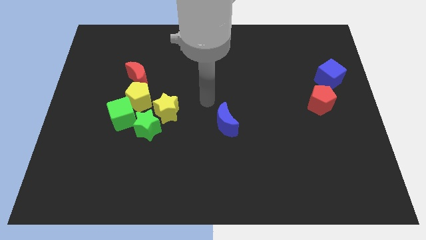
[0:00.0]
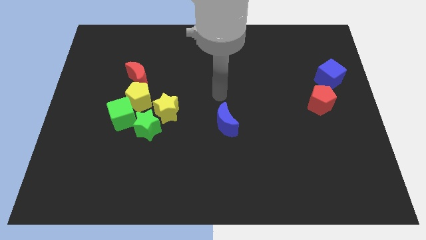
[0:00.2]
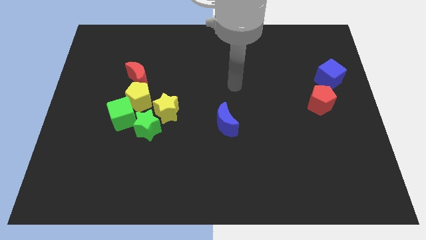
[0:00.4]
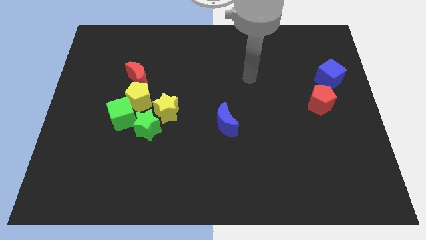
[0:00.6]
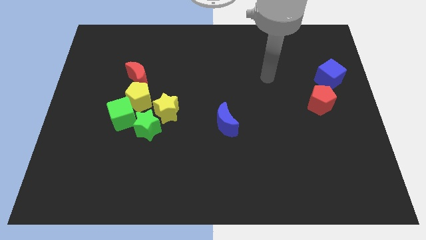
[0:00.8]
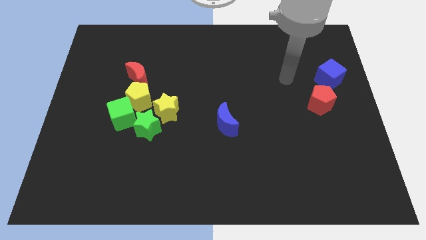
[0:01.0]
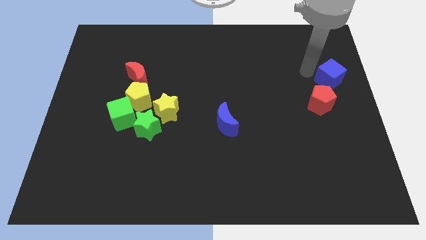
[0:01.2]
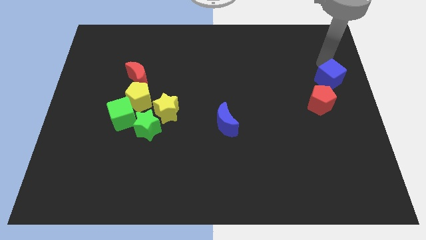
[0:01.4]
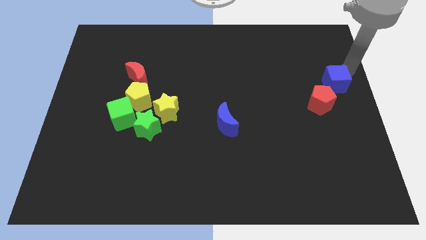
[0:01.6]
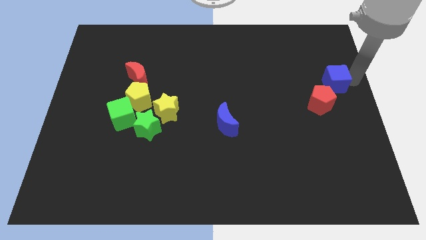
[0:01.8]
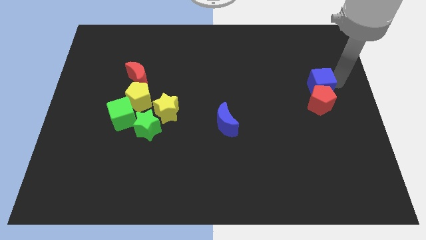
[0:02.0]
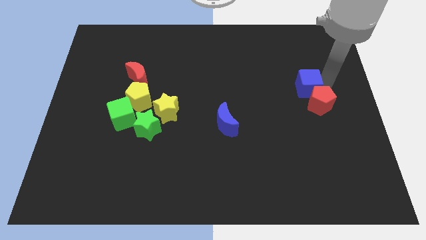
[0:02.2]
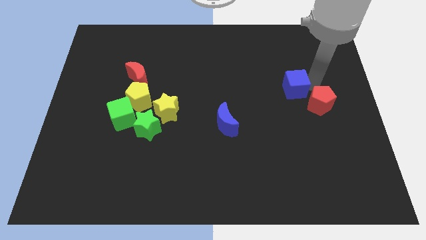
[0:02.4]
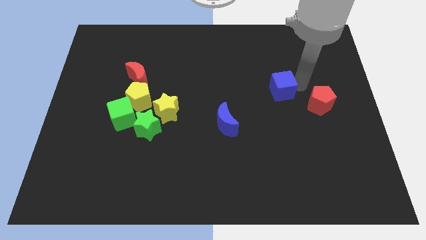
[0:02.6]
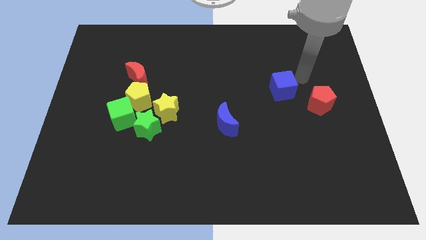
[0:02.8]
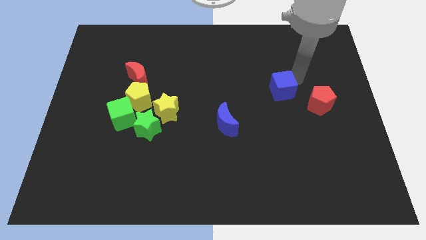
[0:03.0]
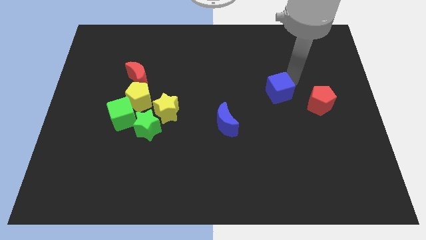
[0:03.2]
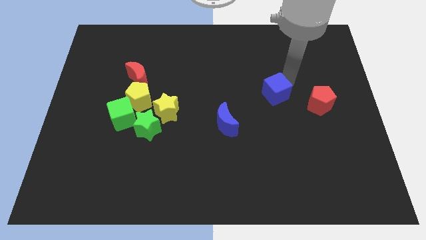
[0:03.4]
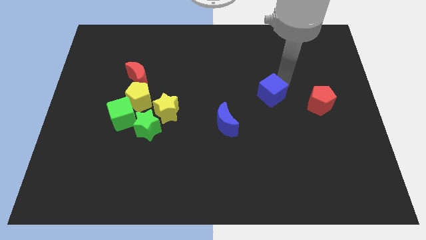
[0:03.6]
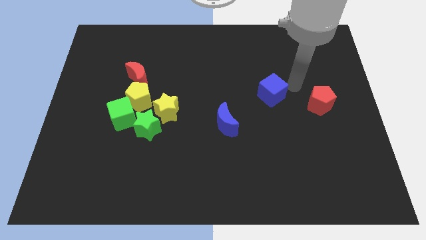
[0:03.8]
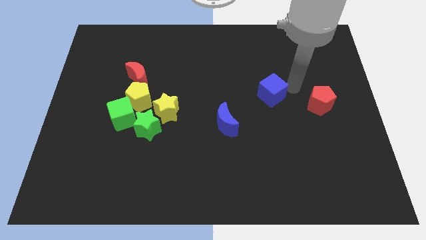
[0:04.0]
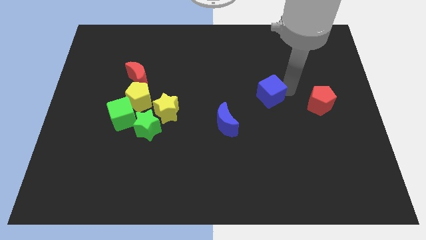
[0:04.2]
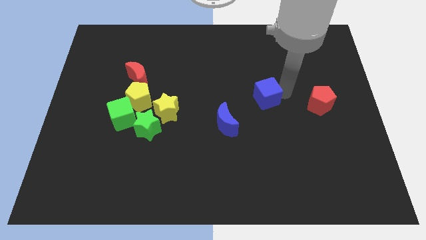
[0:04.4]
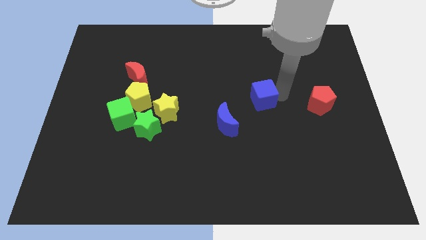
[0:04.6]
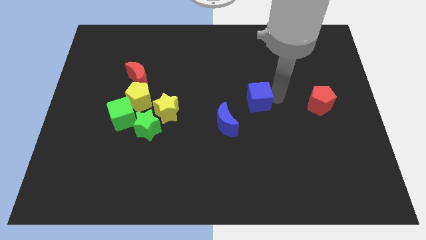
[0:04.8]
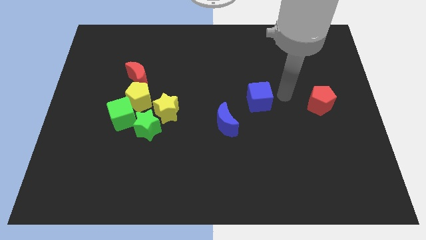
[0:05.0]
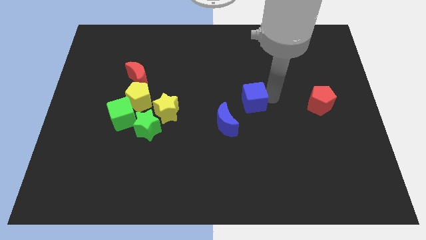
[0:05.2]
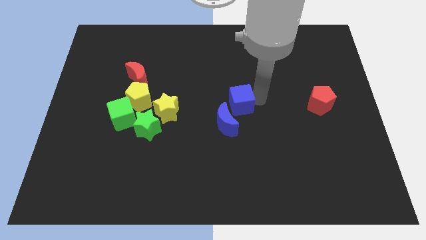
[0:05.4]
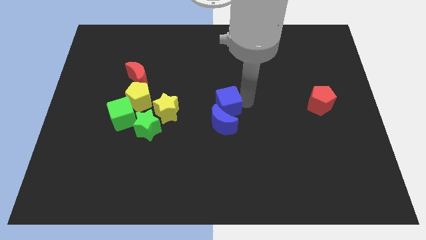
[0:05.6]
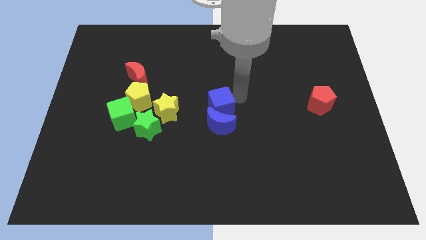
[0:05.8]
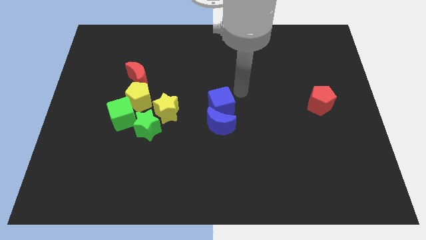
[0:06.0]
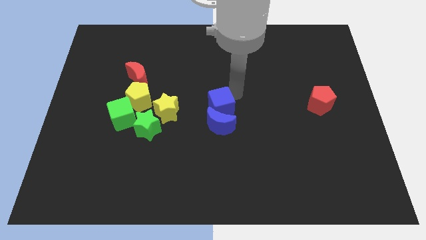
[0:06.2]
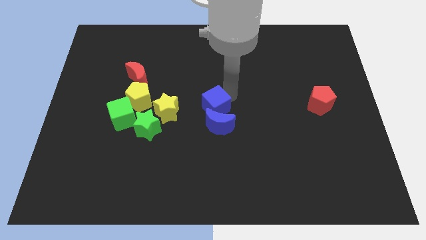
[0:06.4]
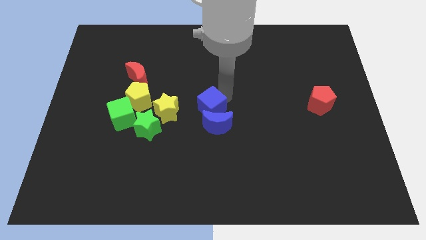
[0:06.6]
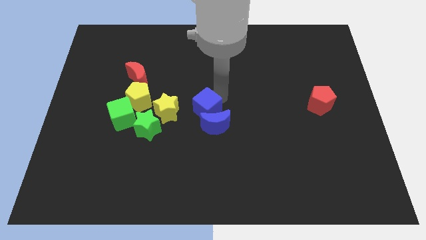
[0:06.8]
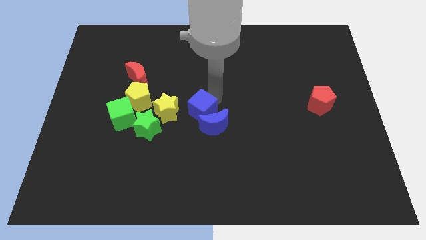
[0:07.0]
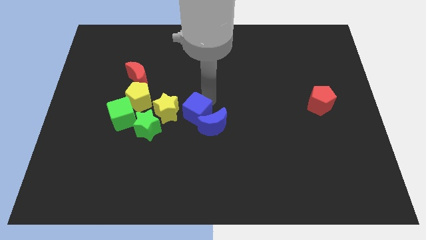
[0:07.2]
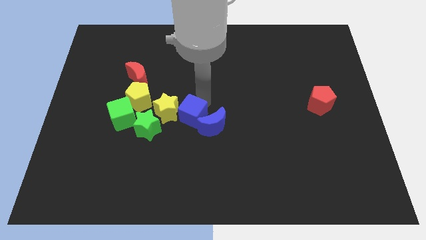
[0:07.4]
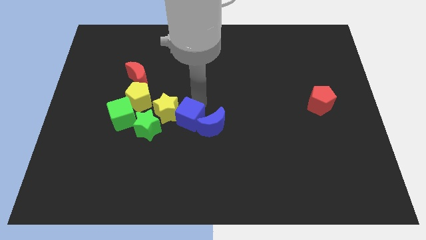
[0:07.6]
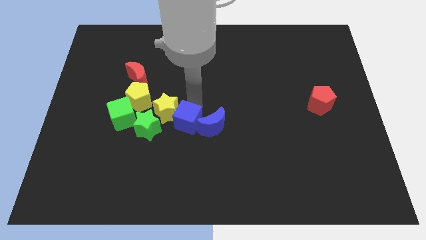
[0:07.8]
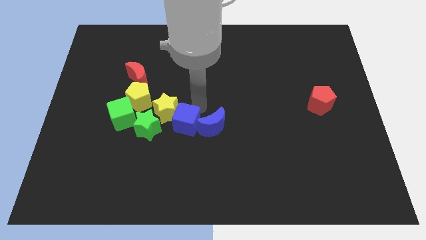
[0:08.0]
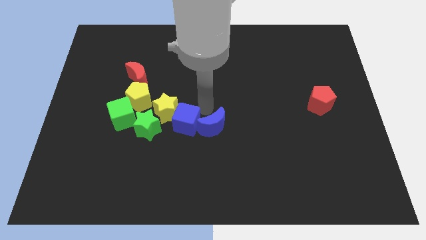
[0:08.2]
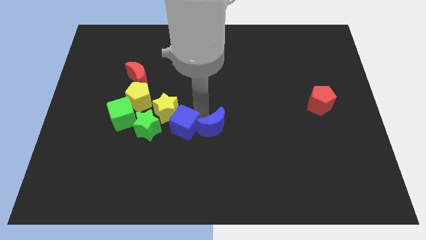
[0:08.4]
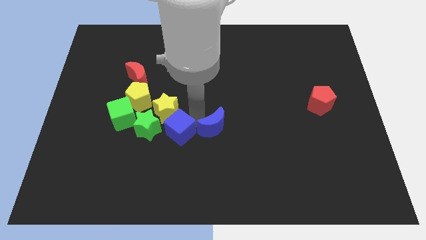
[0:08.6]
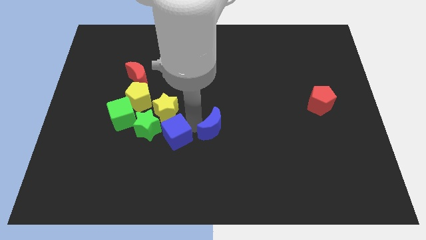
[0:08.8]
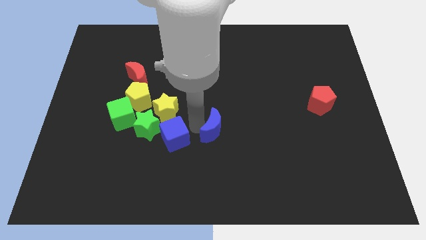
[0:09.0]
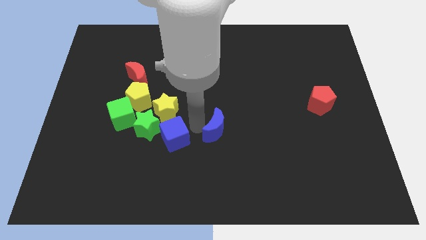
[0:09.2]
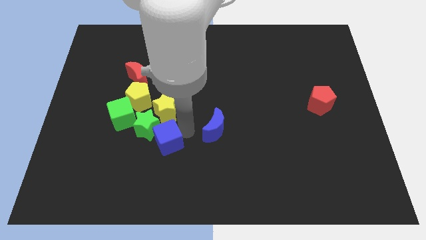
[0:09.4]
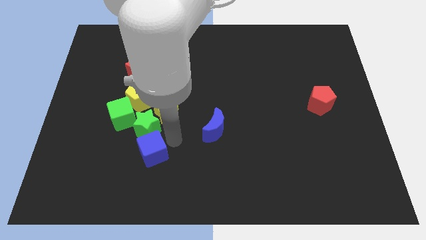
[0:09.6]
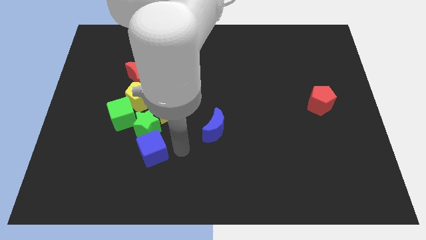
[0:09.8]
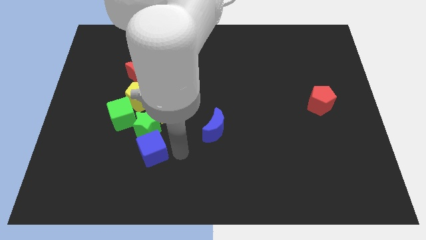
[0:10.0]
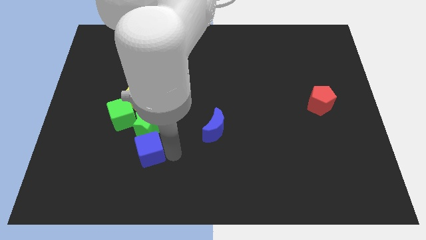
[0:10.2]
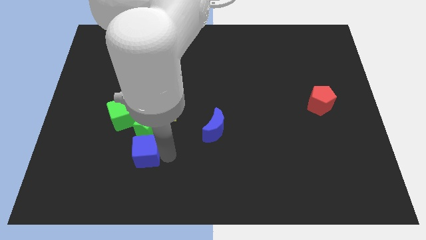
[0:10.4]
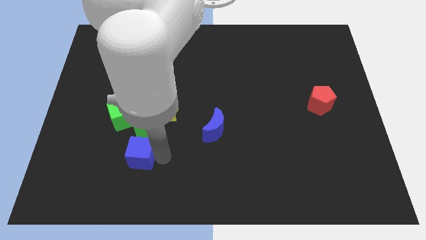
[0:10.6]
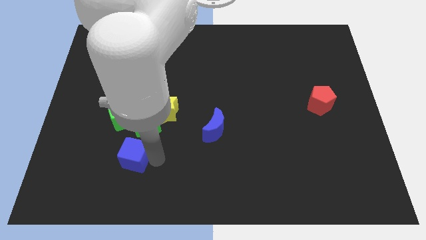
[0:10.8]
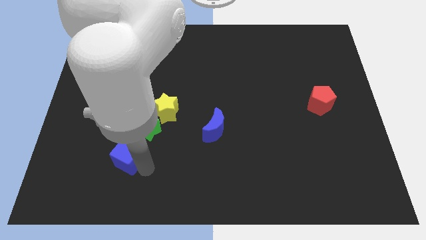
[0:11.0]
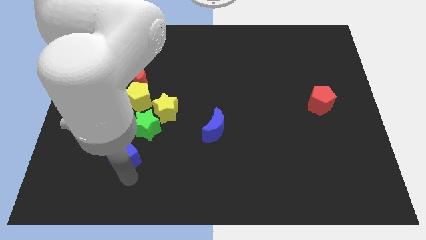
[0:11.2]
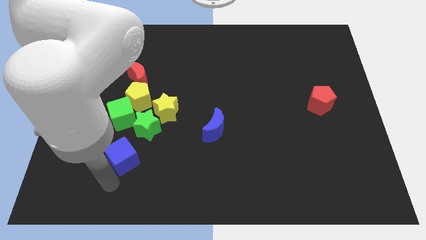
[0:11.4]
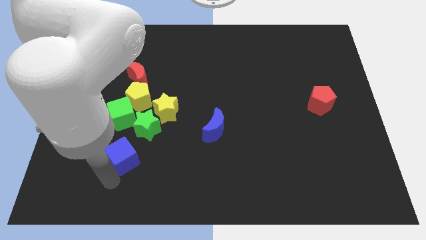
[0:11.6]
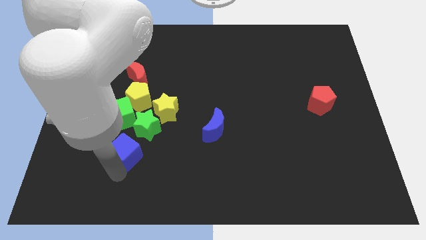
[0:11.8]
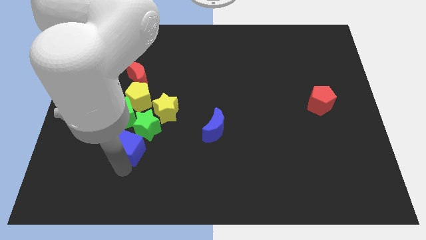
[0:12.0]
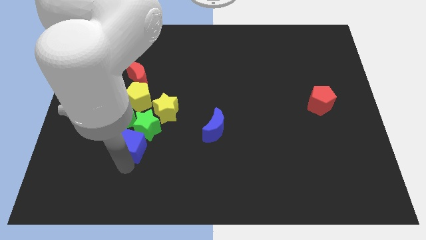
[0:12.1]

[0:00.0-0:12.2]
put the blue cube to the bottom left of the yellow star

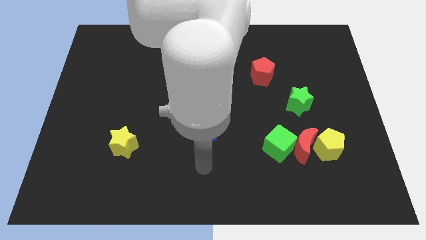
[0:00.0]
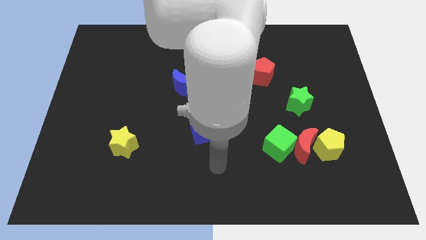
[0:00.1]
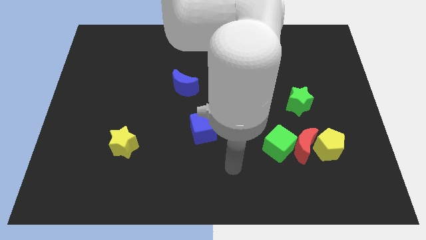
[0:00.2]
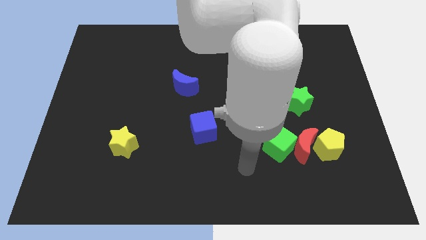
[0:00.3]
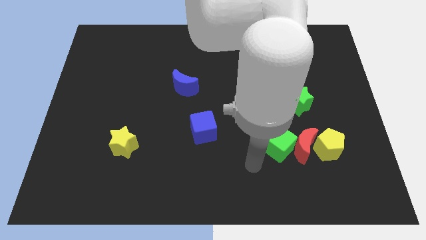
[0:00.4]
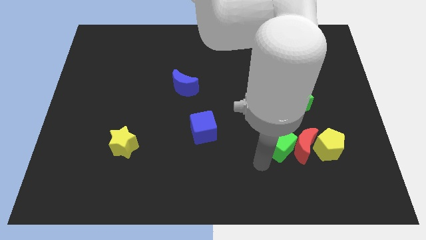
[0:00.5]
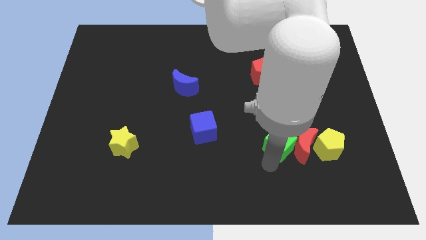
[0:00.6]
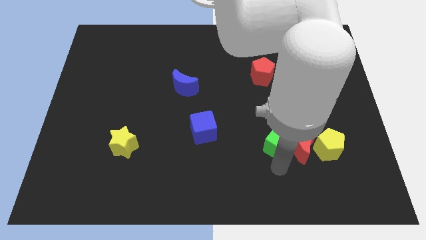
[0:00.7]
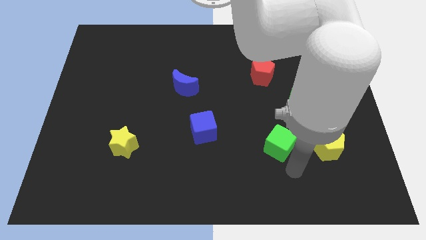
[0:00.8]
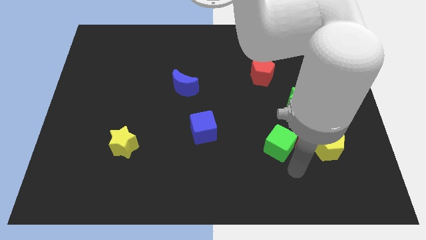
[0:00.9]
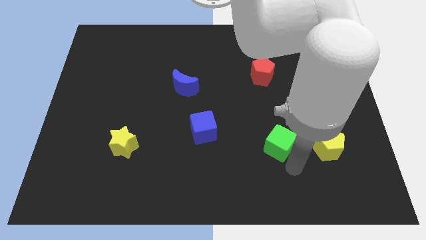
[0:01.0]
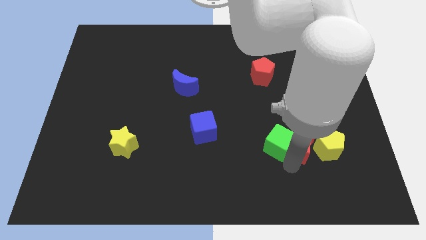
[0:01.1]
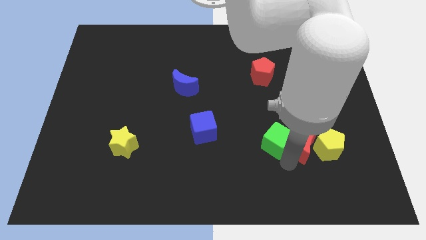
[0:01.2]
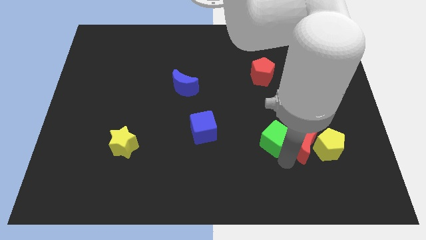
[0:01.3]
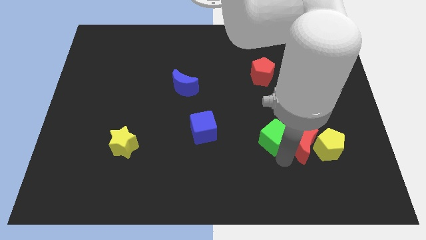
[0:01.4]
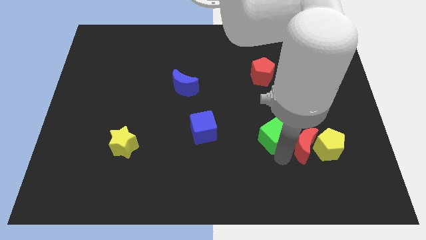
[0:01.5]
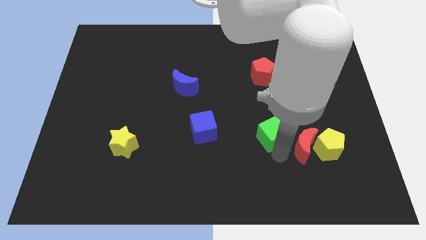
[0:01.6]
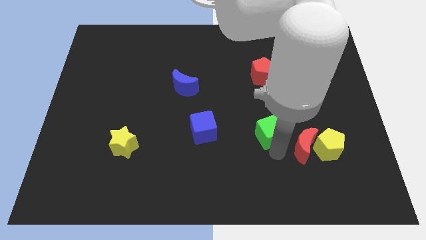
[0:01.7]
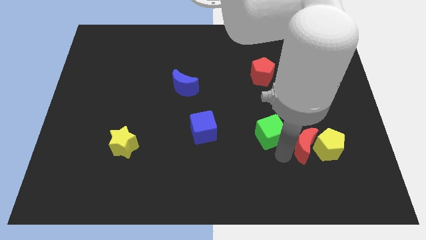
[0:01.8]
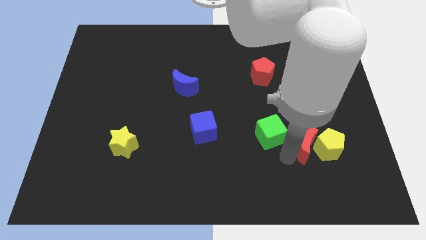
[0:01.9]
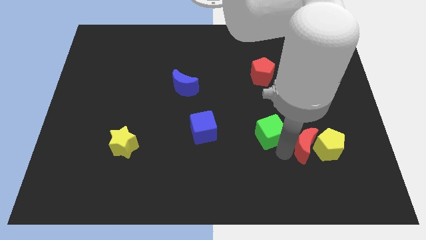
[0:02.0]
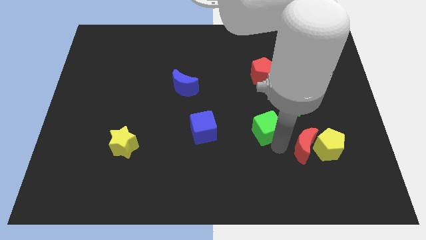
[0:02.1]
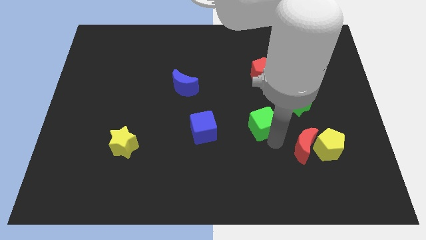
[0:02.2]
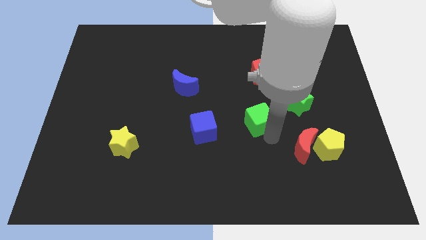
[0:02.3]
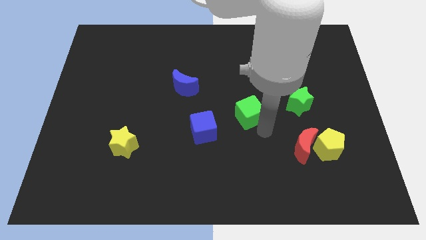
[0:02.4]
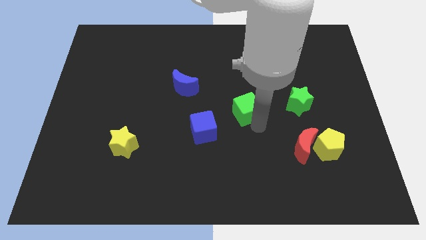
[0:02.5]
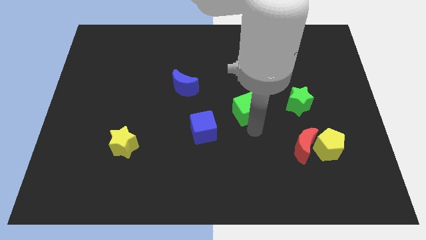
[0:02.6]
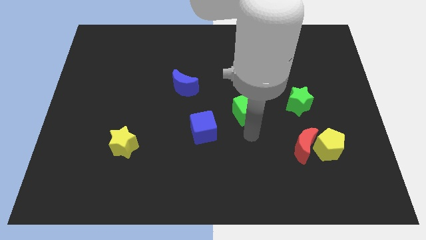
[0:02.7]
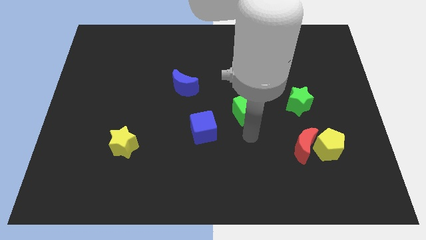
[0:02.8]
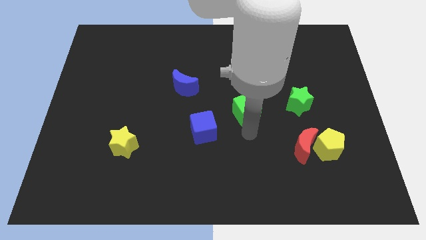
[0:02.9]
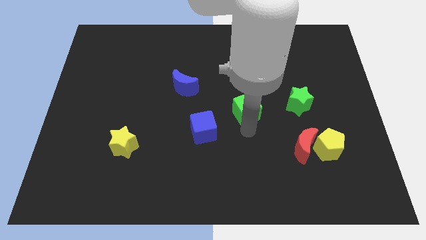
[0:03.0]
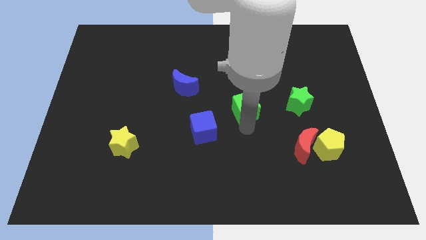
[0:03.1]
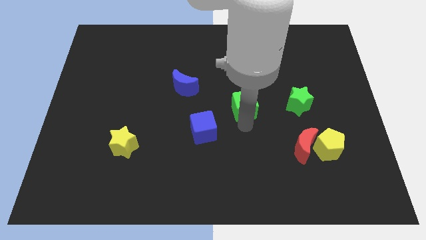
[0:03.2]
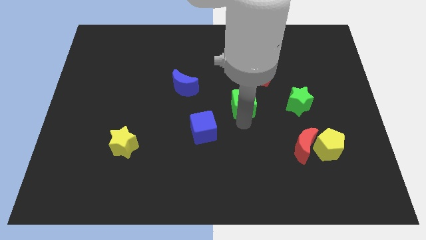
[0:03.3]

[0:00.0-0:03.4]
move the green cube to the bottom left of the red pentagon
